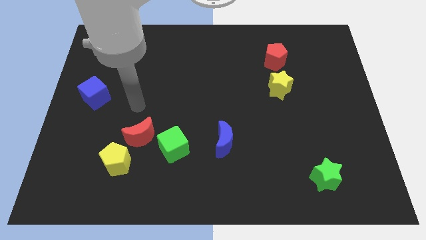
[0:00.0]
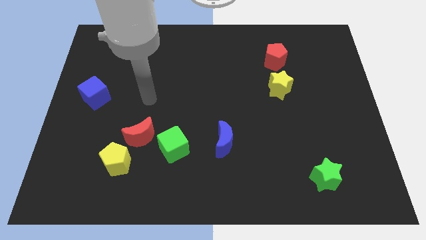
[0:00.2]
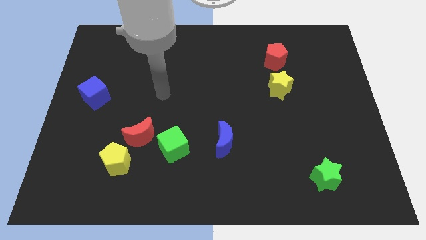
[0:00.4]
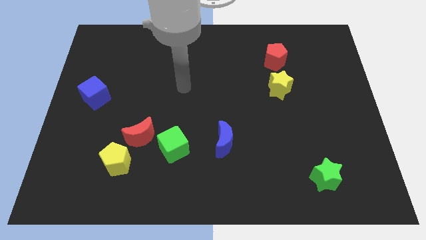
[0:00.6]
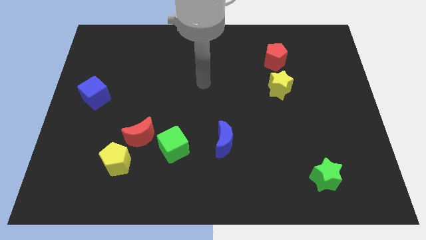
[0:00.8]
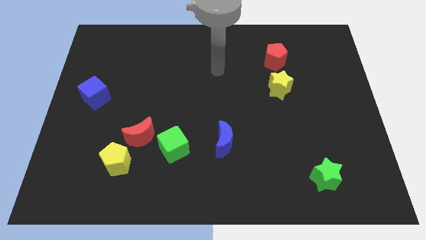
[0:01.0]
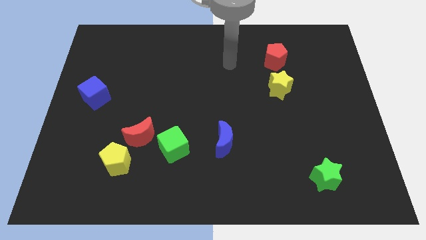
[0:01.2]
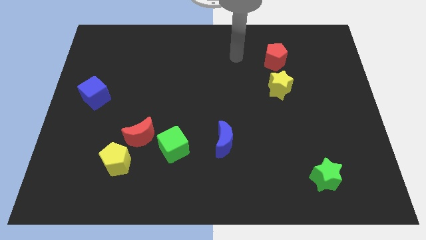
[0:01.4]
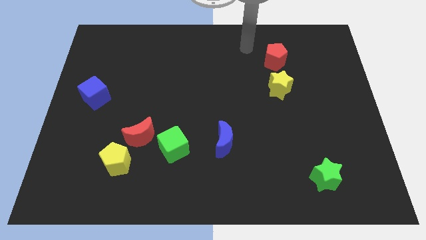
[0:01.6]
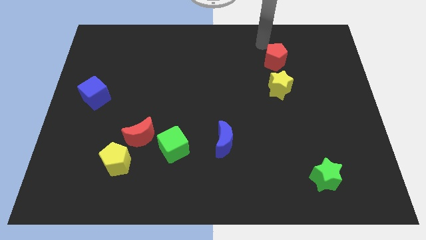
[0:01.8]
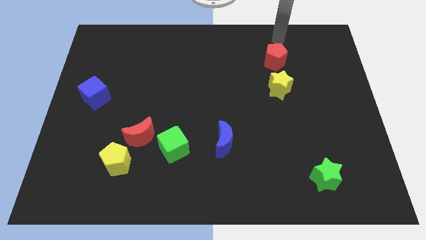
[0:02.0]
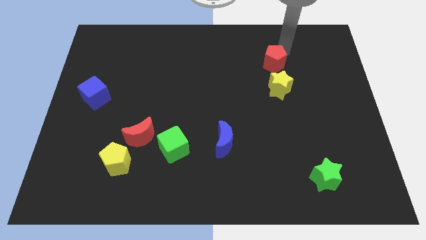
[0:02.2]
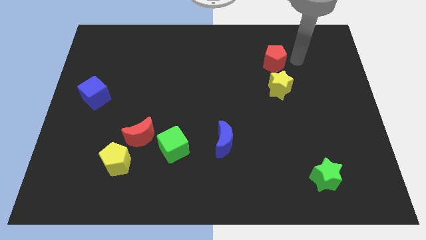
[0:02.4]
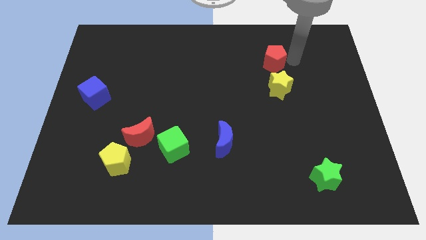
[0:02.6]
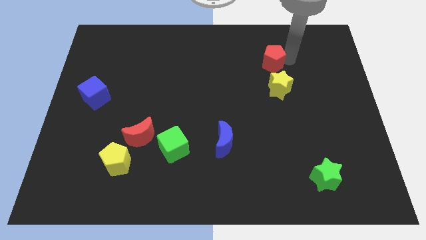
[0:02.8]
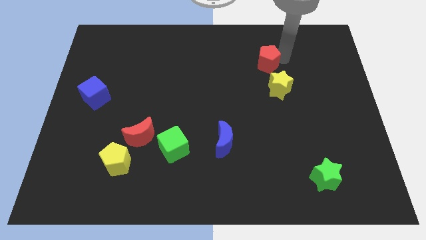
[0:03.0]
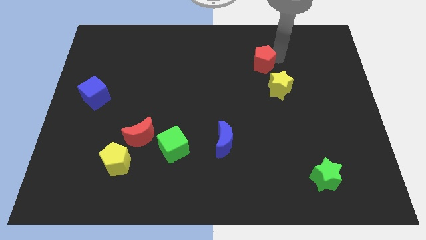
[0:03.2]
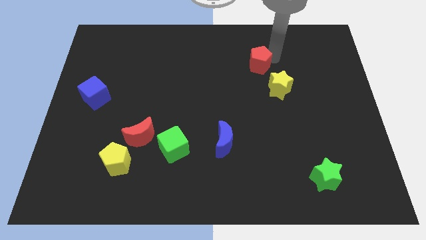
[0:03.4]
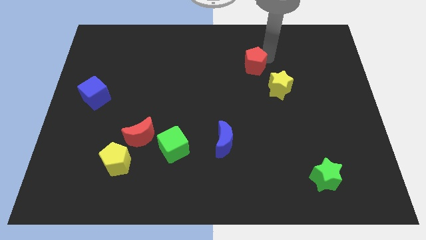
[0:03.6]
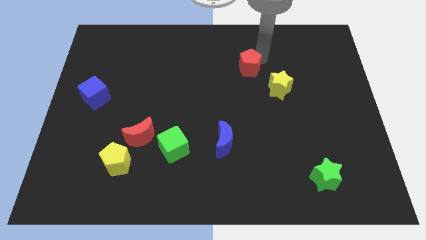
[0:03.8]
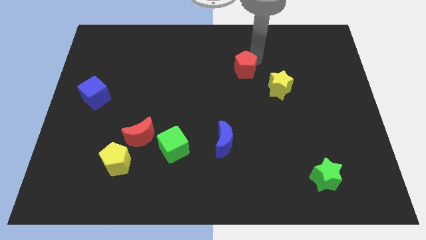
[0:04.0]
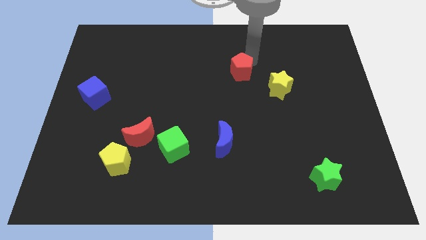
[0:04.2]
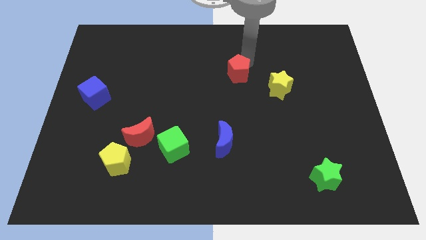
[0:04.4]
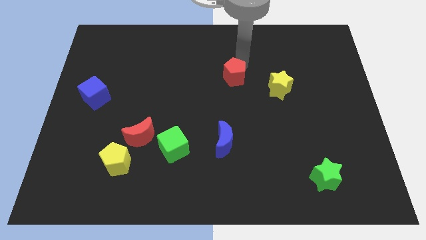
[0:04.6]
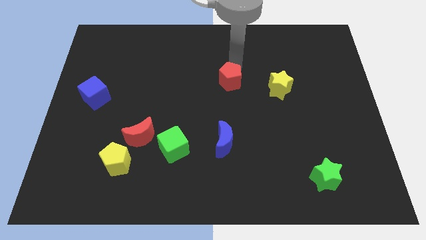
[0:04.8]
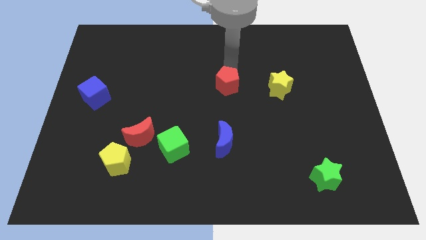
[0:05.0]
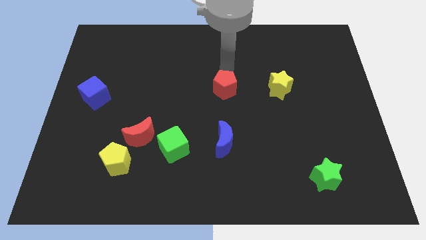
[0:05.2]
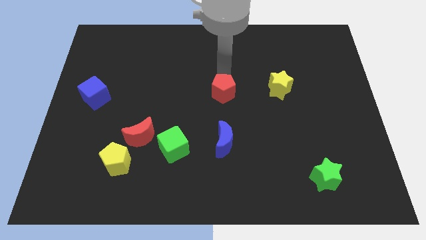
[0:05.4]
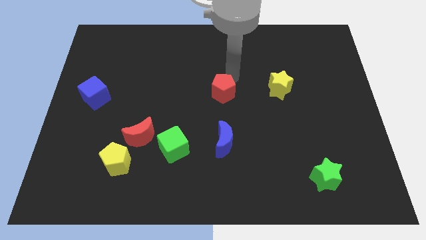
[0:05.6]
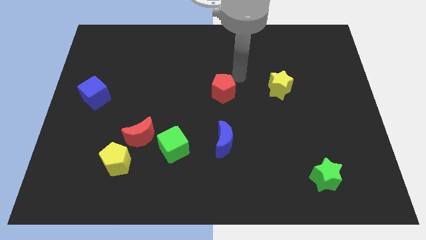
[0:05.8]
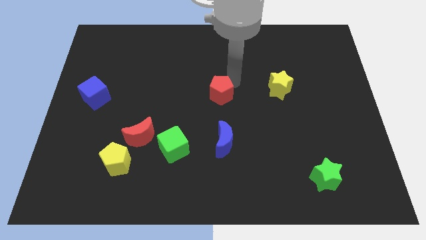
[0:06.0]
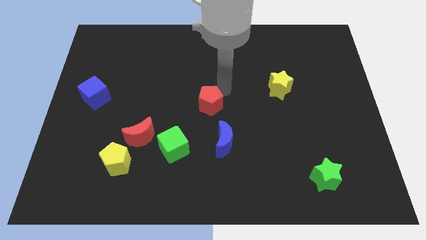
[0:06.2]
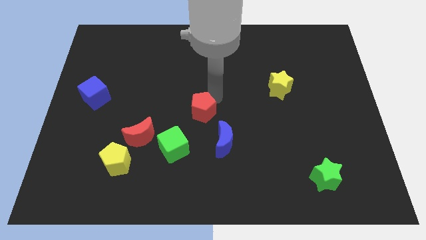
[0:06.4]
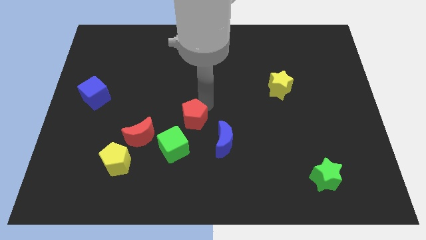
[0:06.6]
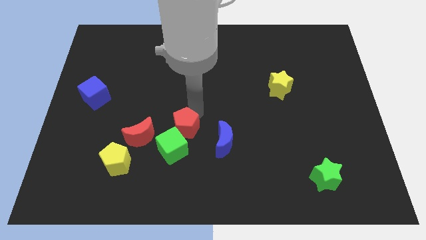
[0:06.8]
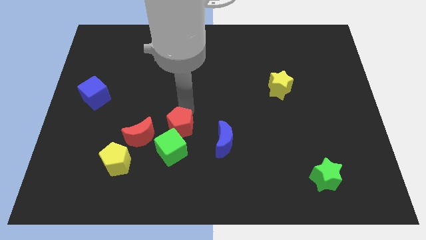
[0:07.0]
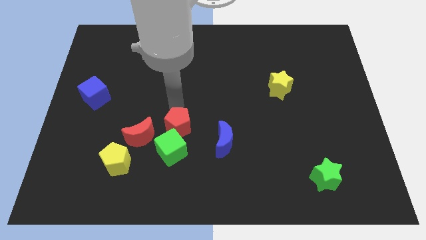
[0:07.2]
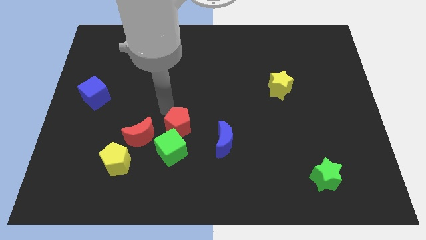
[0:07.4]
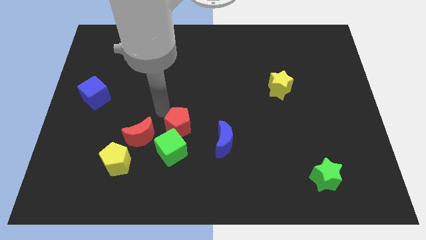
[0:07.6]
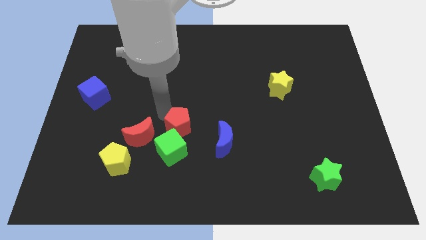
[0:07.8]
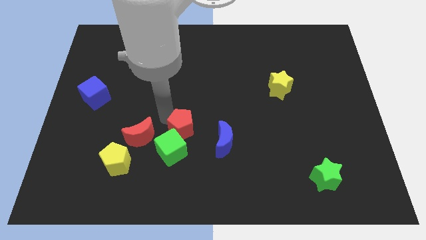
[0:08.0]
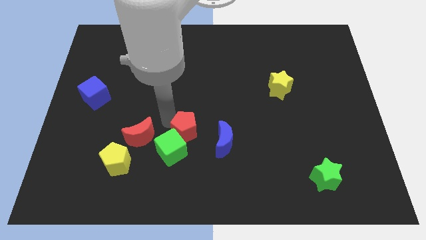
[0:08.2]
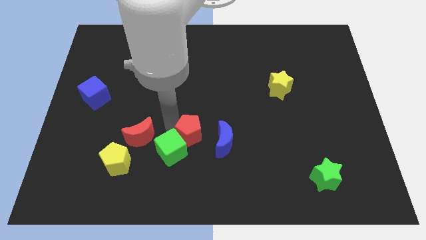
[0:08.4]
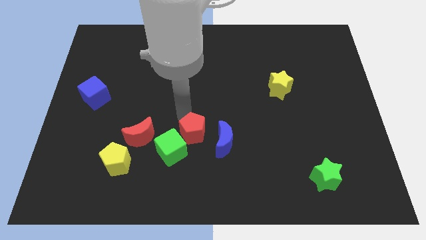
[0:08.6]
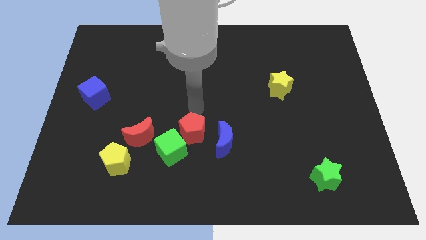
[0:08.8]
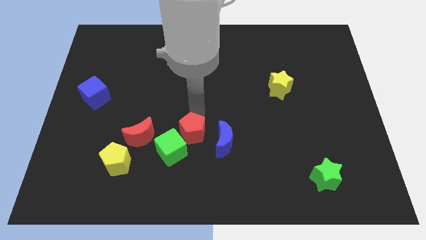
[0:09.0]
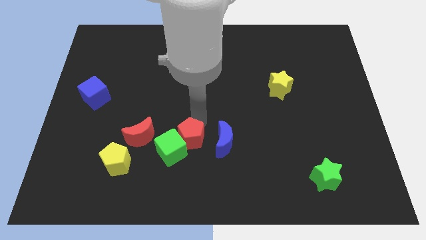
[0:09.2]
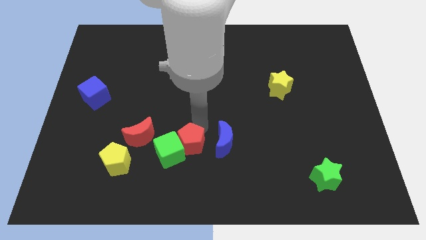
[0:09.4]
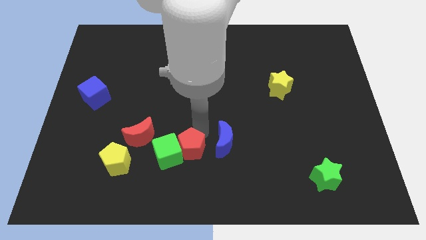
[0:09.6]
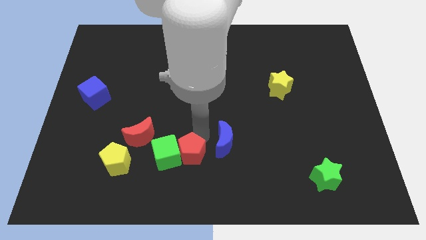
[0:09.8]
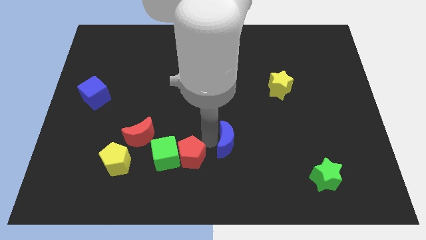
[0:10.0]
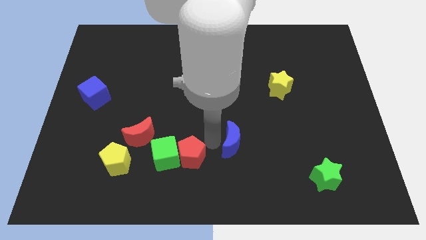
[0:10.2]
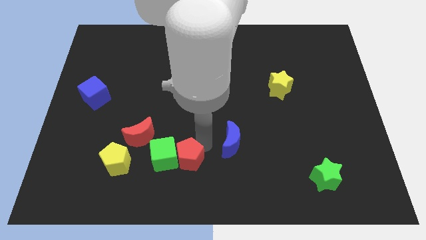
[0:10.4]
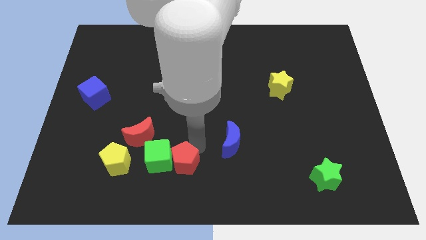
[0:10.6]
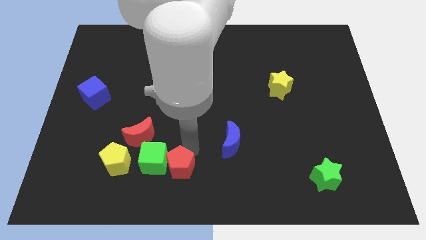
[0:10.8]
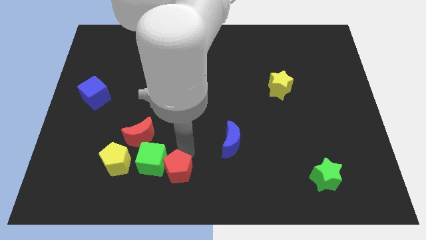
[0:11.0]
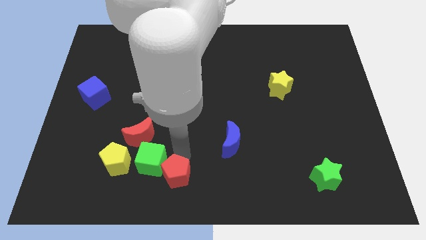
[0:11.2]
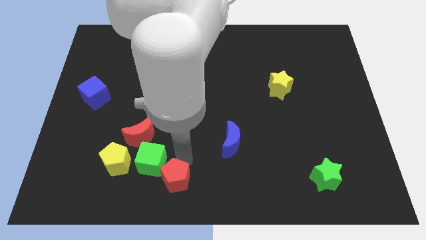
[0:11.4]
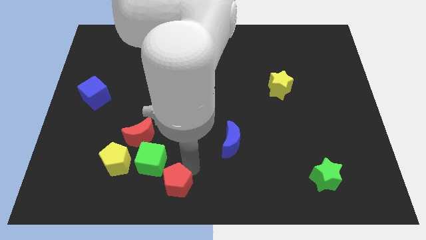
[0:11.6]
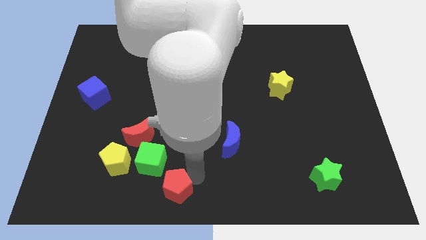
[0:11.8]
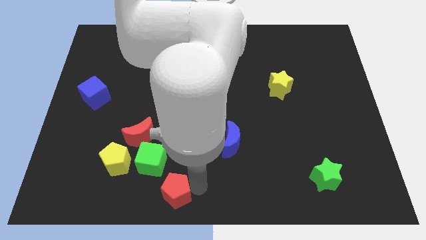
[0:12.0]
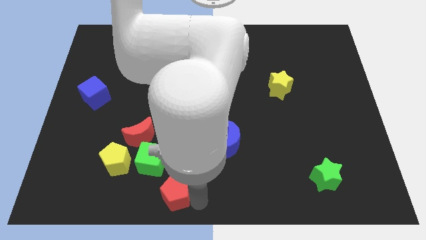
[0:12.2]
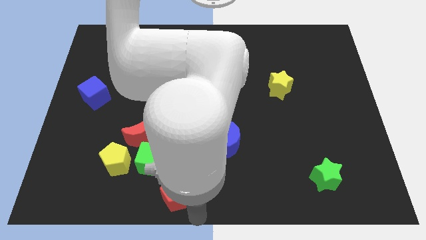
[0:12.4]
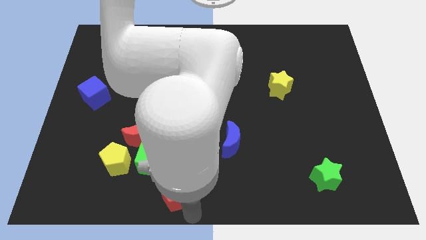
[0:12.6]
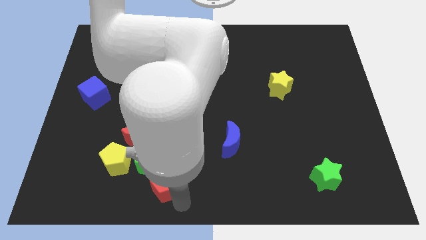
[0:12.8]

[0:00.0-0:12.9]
slide the red pentagon to the bottom right side of the yellow pentagon
